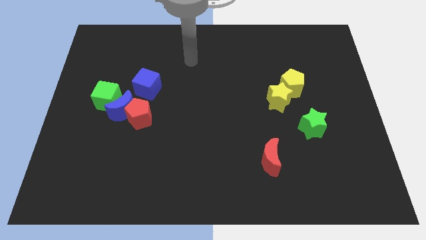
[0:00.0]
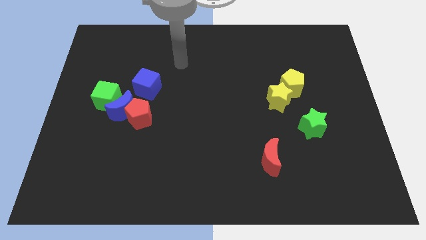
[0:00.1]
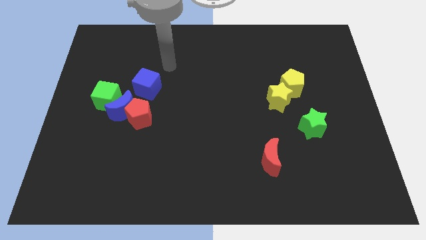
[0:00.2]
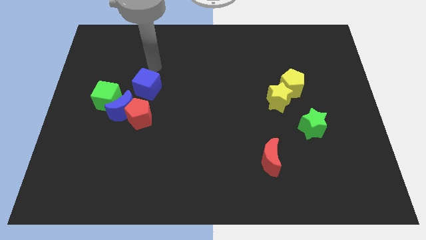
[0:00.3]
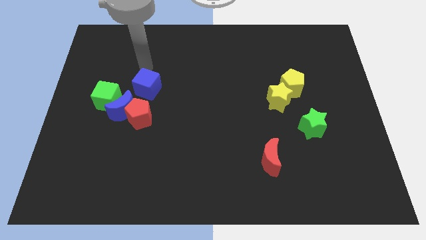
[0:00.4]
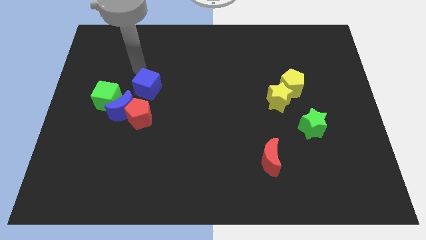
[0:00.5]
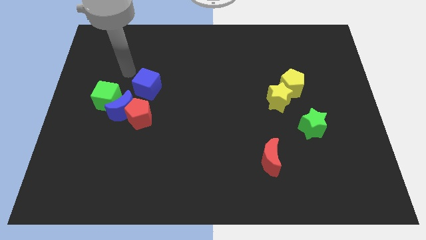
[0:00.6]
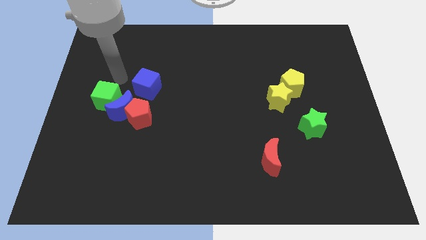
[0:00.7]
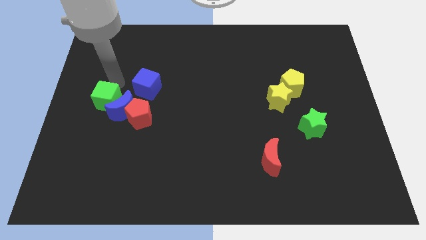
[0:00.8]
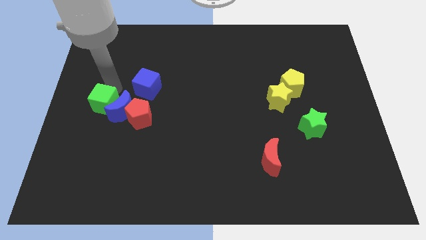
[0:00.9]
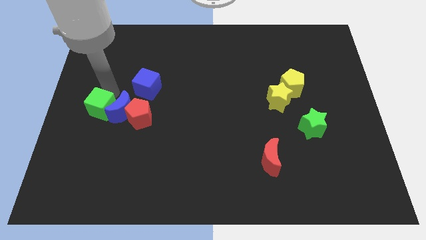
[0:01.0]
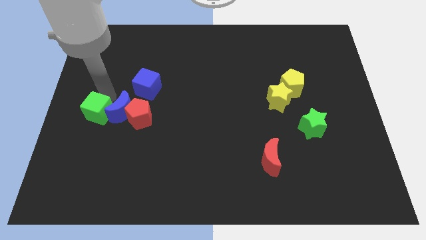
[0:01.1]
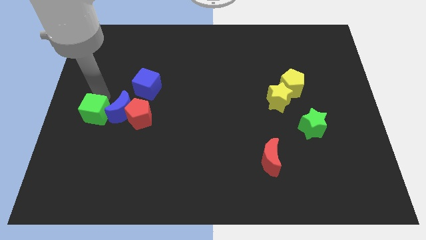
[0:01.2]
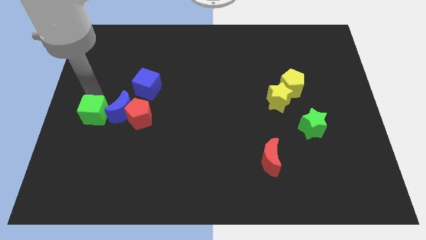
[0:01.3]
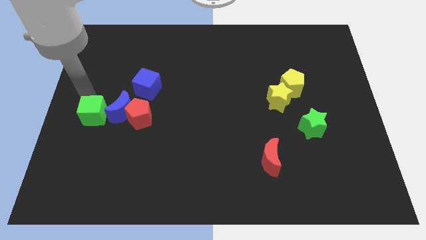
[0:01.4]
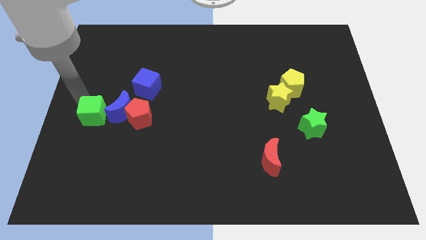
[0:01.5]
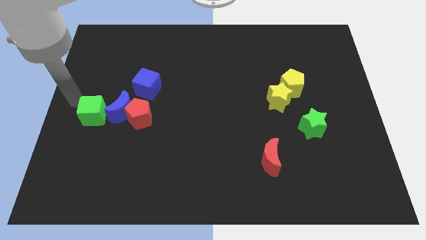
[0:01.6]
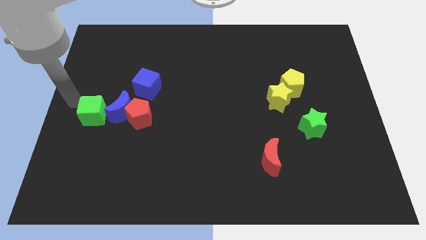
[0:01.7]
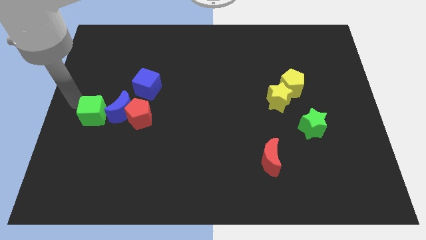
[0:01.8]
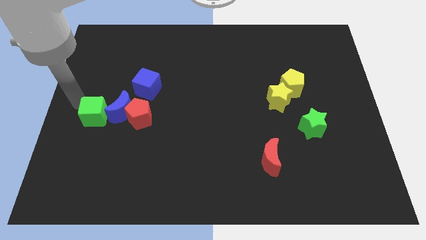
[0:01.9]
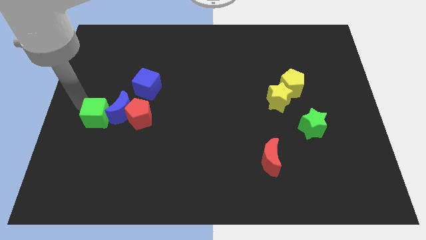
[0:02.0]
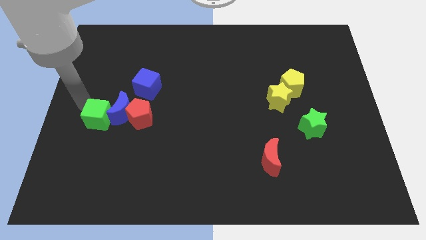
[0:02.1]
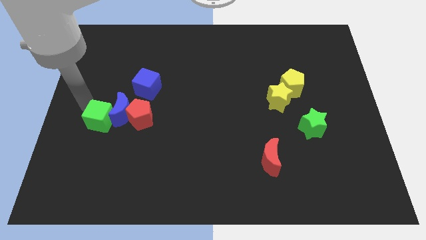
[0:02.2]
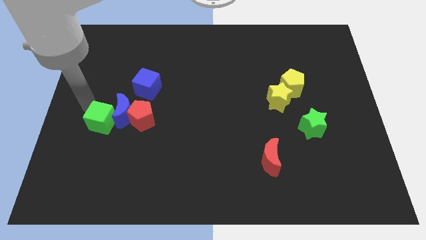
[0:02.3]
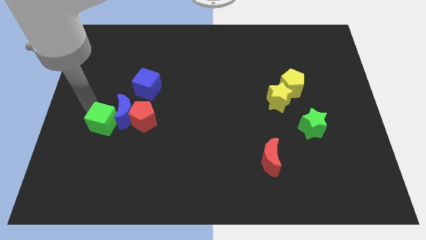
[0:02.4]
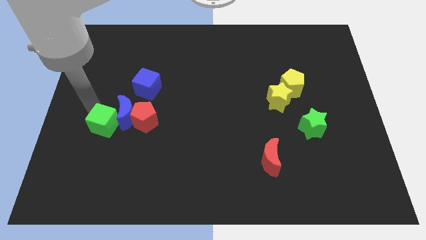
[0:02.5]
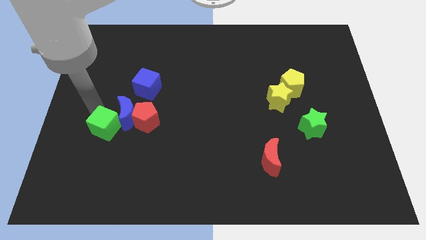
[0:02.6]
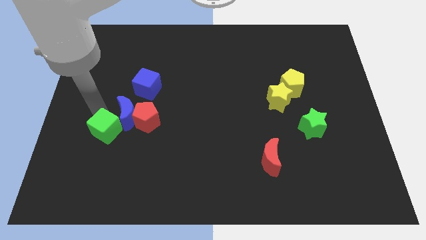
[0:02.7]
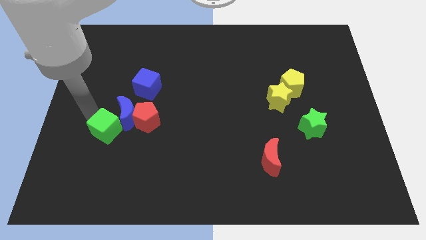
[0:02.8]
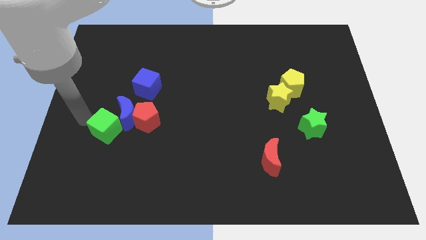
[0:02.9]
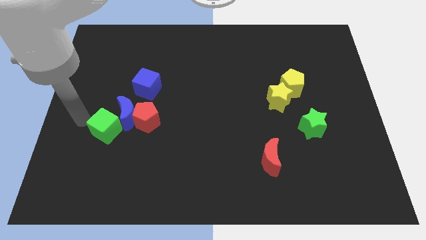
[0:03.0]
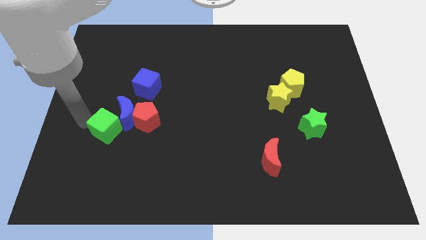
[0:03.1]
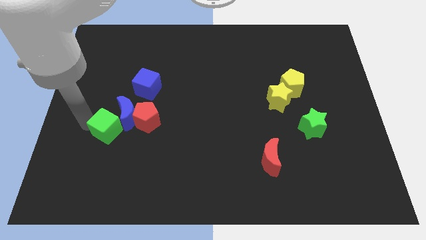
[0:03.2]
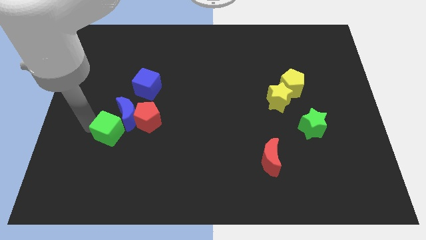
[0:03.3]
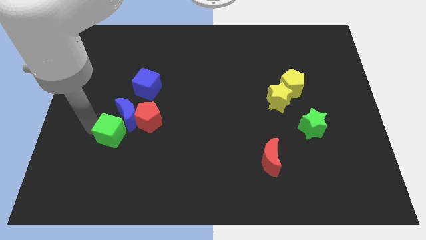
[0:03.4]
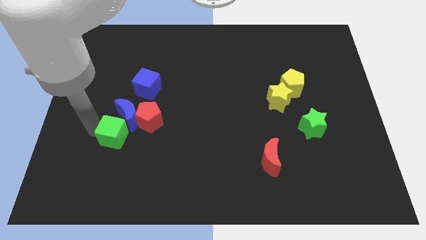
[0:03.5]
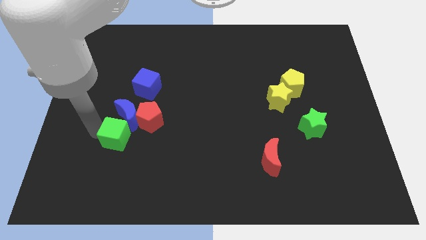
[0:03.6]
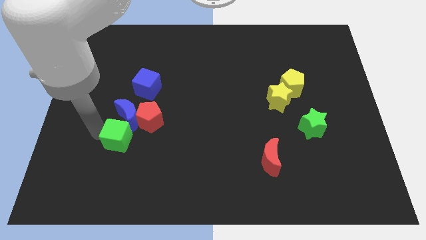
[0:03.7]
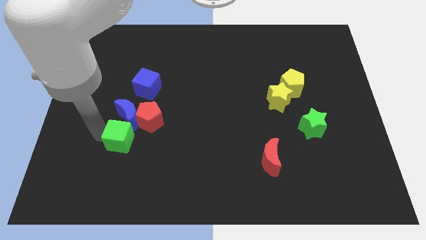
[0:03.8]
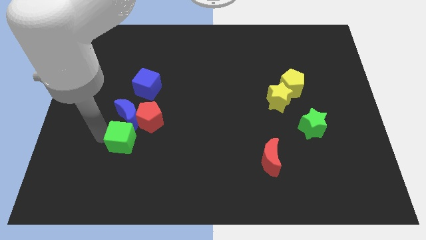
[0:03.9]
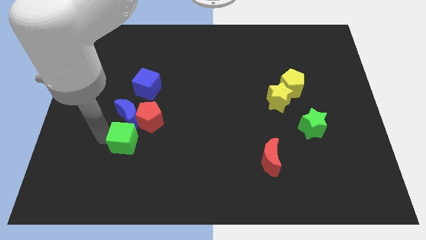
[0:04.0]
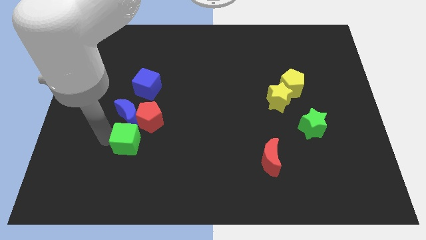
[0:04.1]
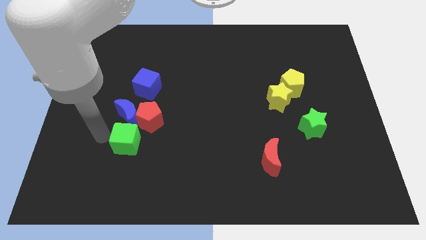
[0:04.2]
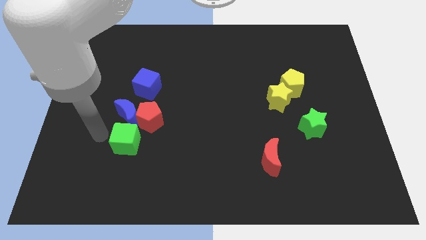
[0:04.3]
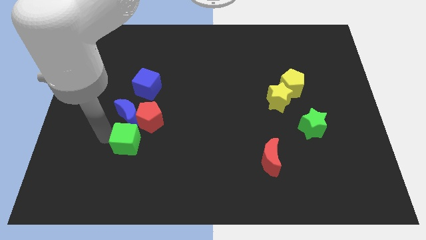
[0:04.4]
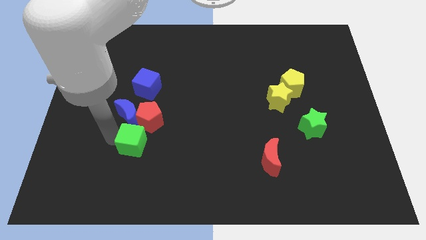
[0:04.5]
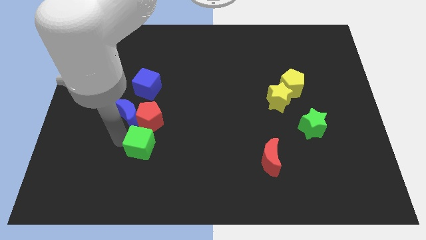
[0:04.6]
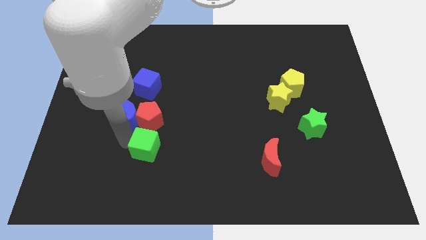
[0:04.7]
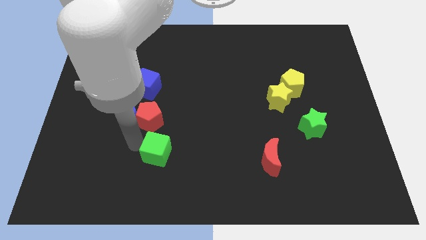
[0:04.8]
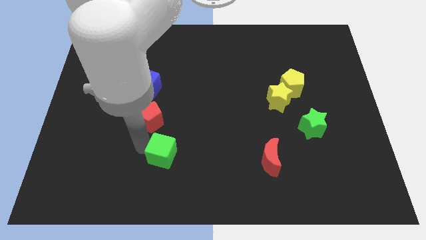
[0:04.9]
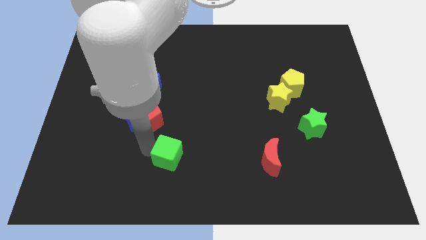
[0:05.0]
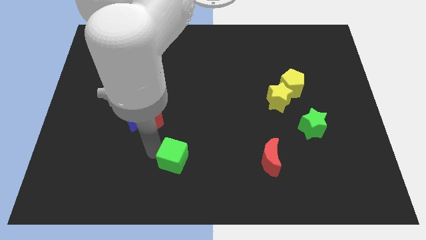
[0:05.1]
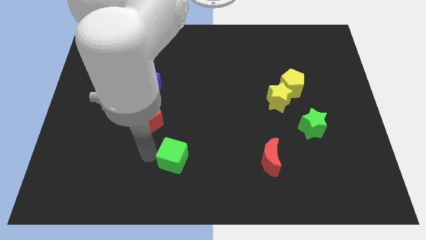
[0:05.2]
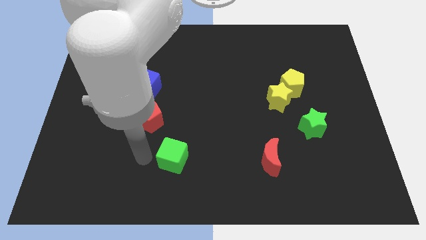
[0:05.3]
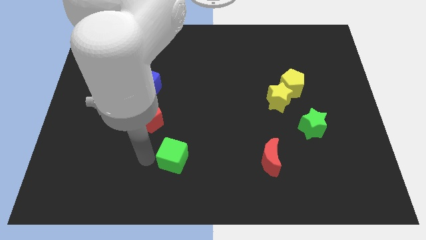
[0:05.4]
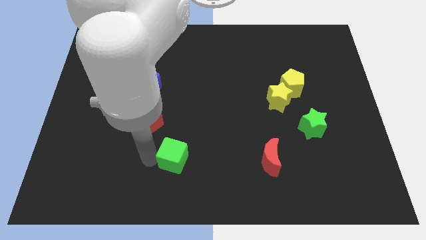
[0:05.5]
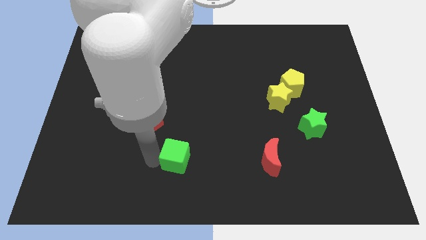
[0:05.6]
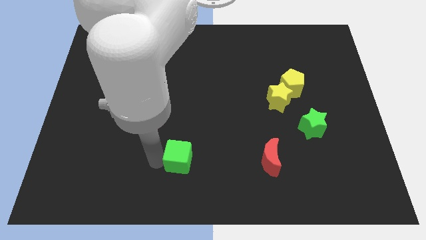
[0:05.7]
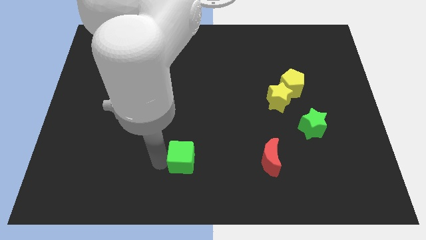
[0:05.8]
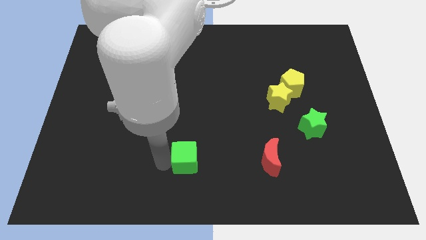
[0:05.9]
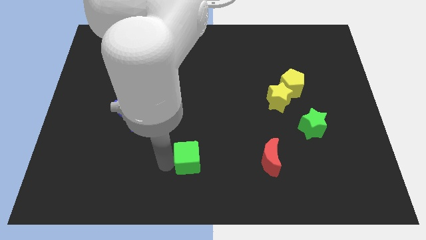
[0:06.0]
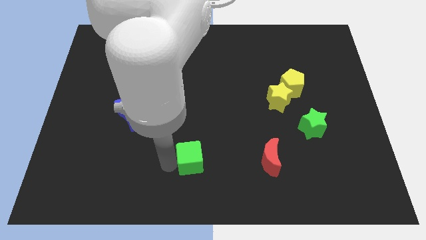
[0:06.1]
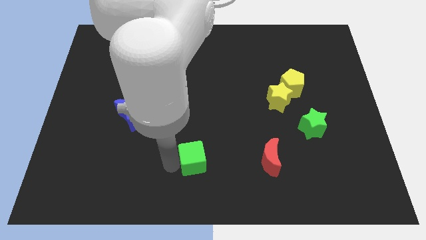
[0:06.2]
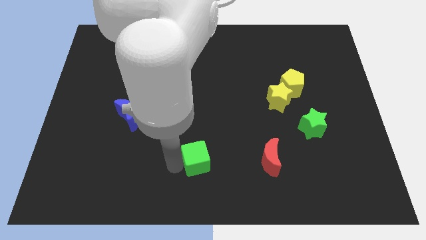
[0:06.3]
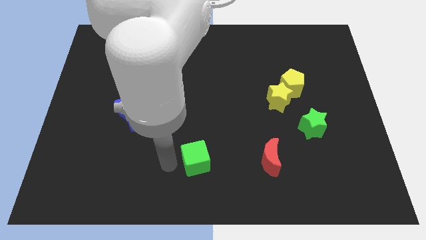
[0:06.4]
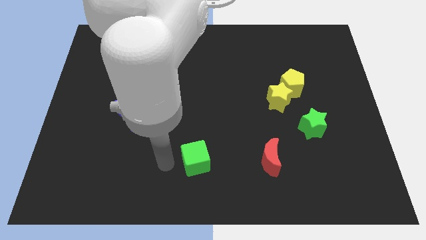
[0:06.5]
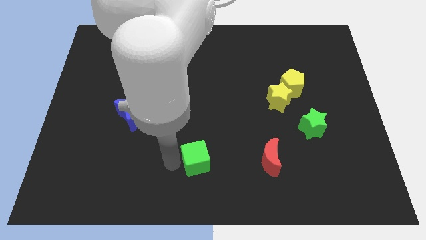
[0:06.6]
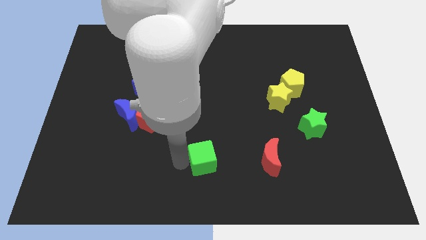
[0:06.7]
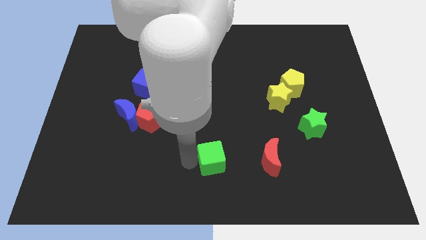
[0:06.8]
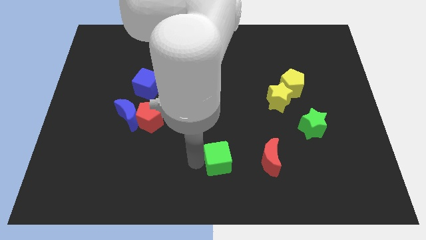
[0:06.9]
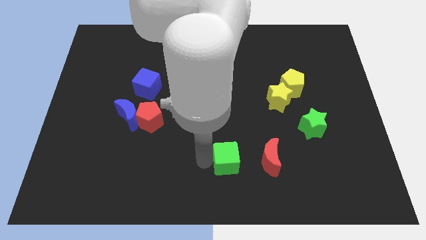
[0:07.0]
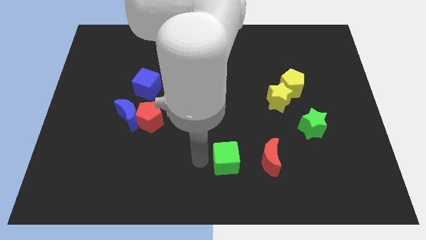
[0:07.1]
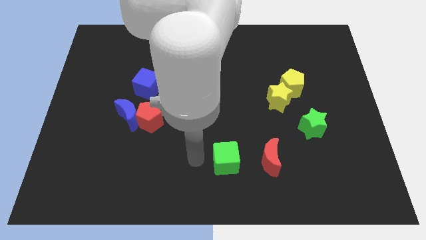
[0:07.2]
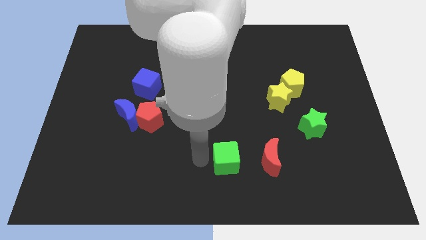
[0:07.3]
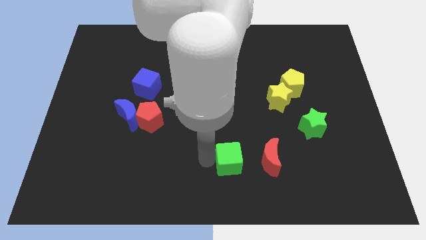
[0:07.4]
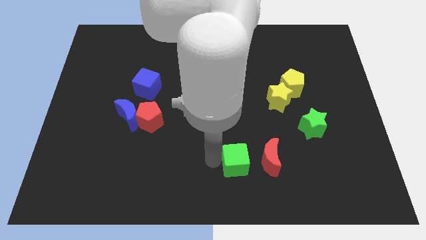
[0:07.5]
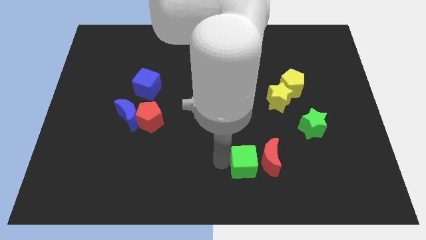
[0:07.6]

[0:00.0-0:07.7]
put the green cube to the red moon
